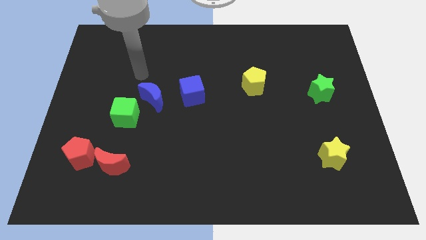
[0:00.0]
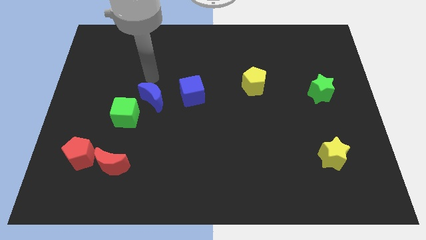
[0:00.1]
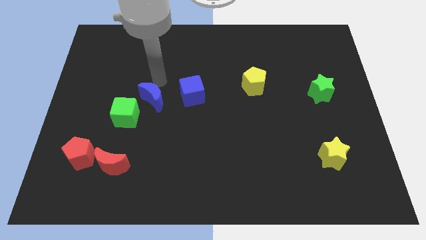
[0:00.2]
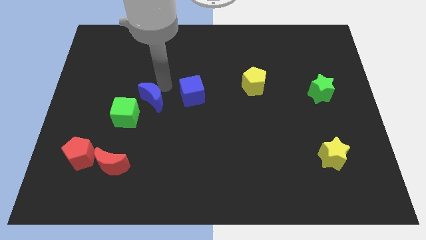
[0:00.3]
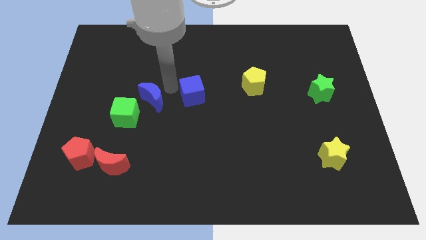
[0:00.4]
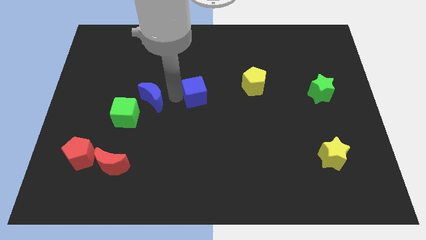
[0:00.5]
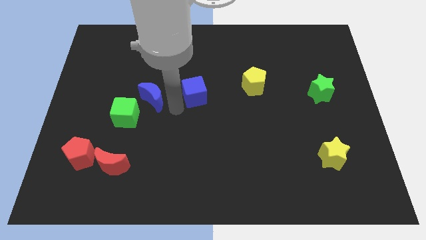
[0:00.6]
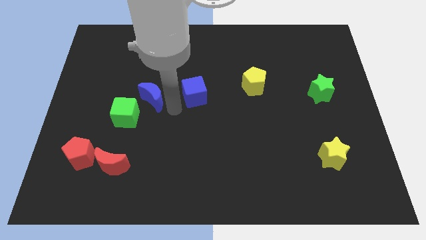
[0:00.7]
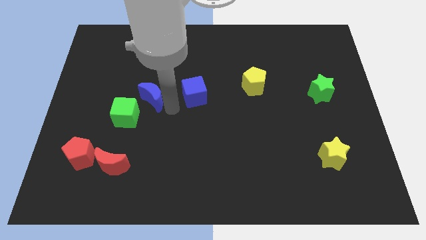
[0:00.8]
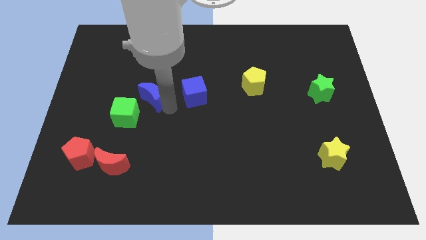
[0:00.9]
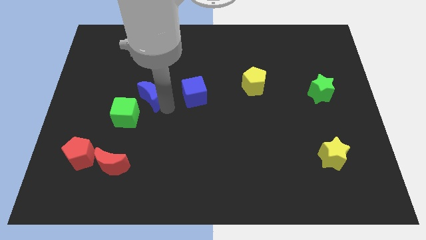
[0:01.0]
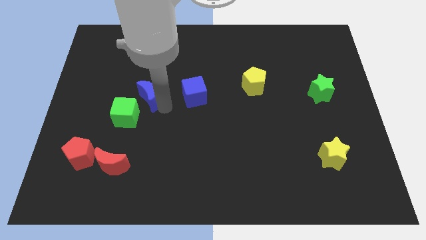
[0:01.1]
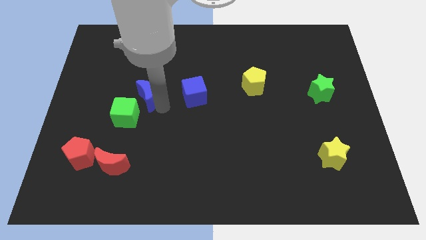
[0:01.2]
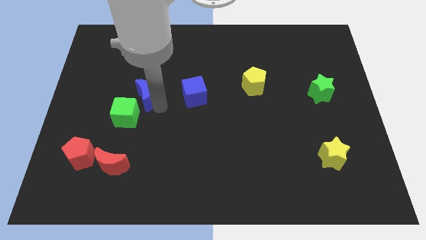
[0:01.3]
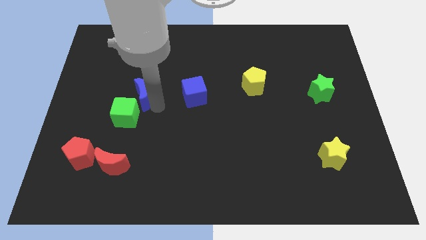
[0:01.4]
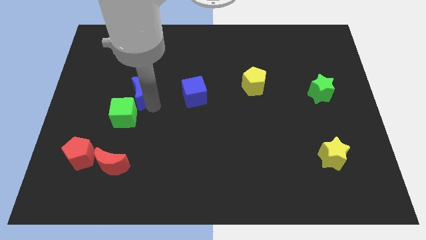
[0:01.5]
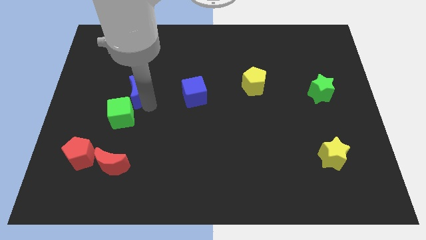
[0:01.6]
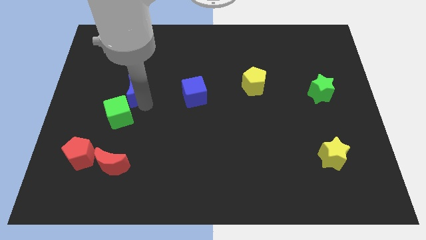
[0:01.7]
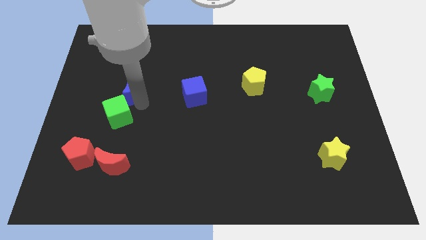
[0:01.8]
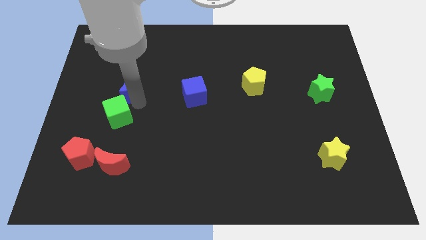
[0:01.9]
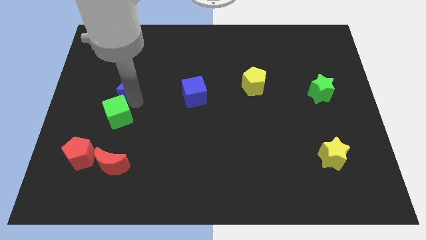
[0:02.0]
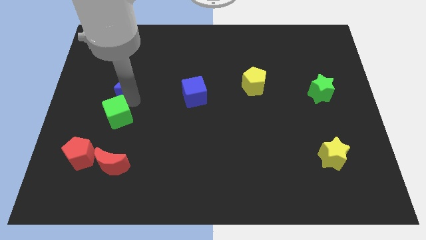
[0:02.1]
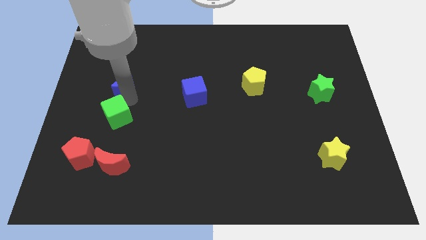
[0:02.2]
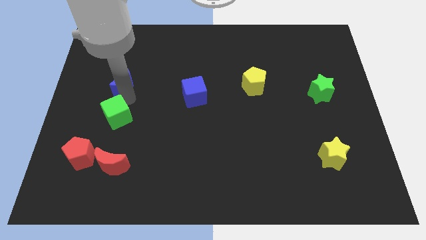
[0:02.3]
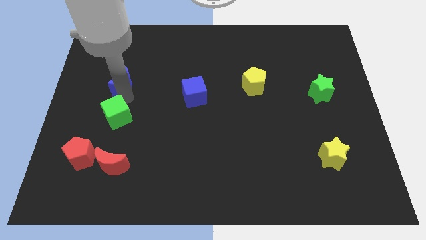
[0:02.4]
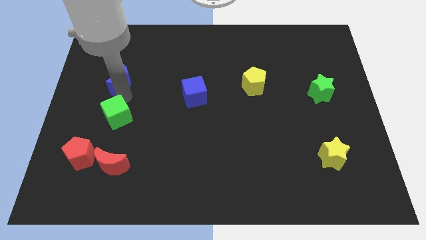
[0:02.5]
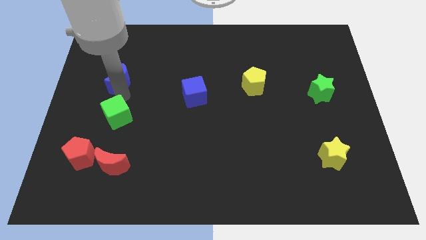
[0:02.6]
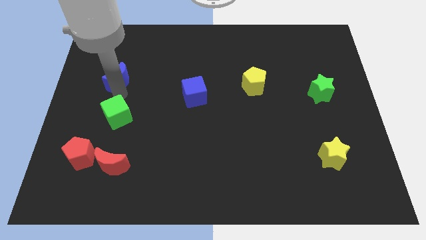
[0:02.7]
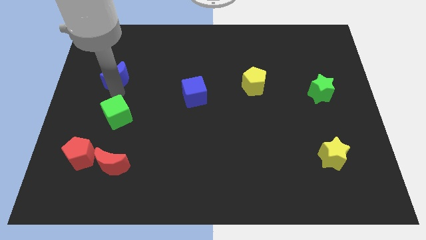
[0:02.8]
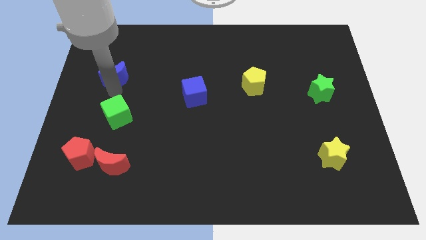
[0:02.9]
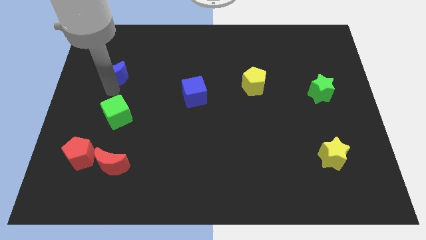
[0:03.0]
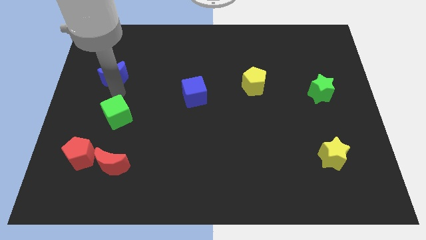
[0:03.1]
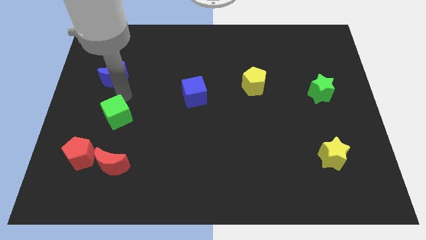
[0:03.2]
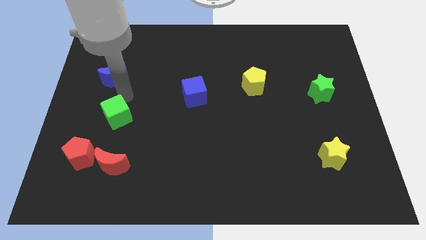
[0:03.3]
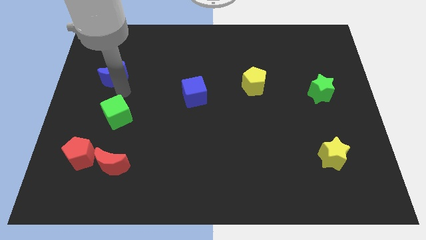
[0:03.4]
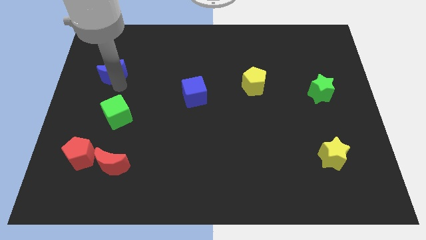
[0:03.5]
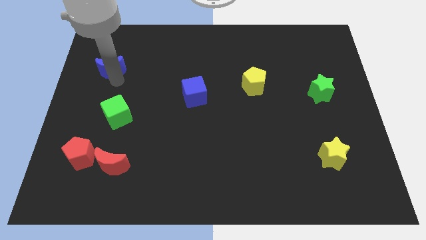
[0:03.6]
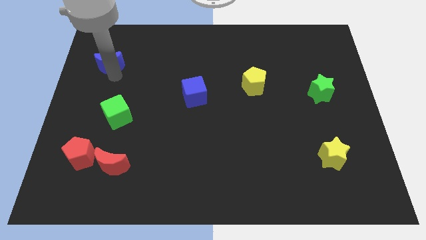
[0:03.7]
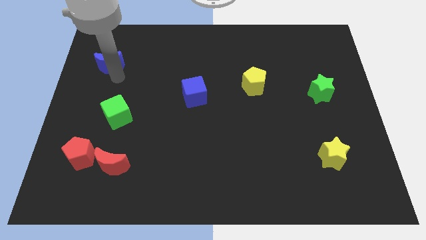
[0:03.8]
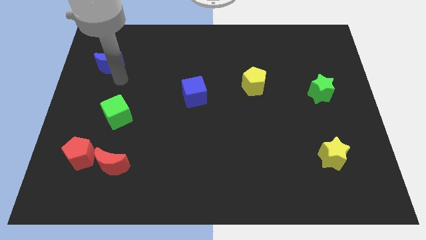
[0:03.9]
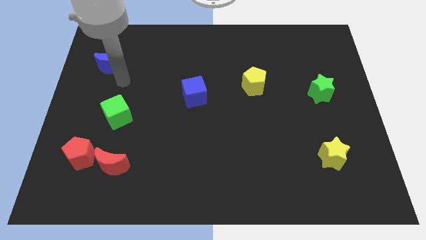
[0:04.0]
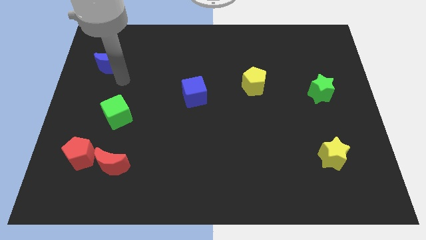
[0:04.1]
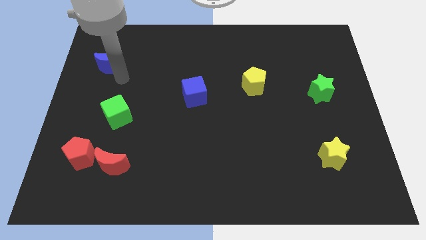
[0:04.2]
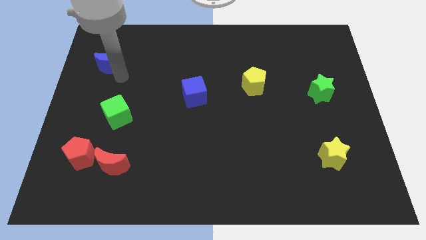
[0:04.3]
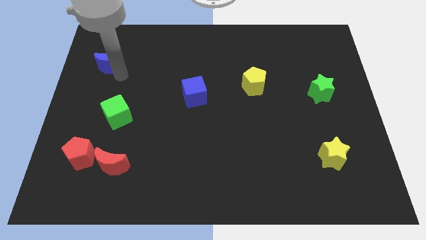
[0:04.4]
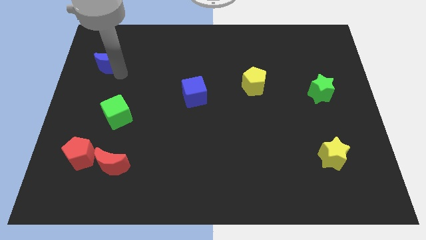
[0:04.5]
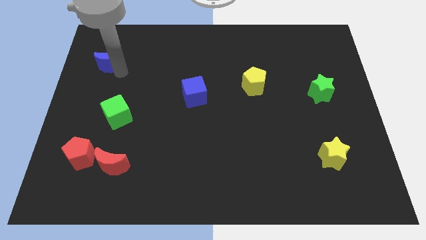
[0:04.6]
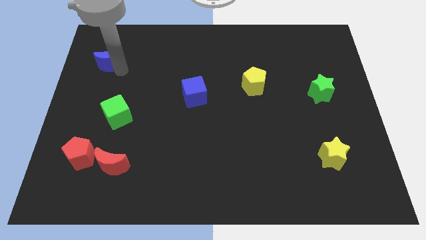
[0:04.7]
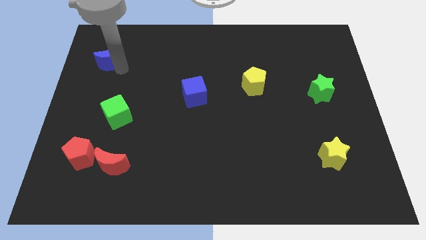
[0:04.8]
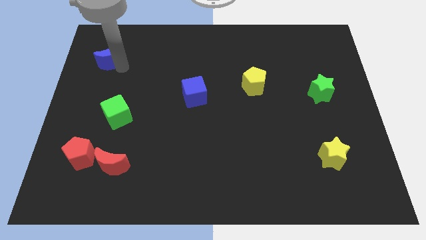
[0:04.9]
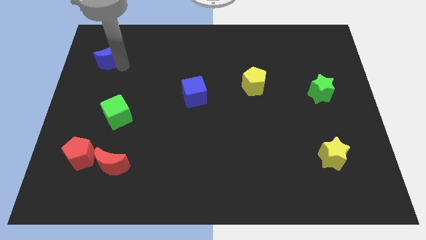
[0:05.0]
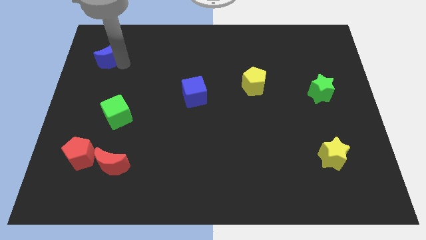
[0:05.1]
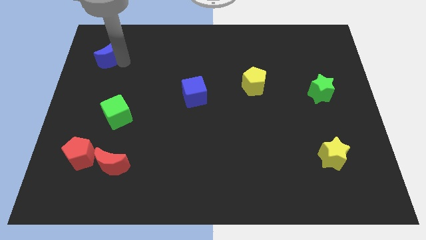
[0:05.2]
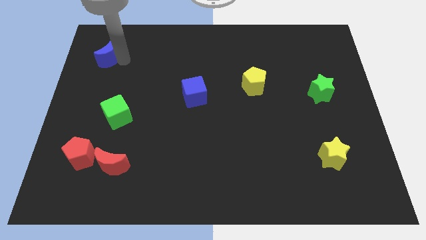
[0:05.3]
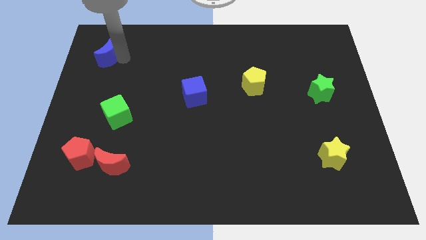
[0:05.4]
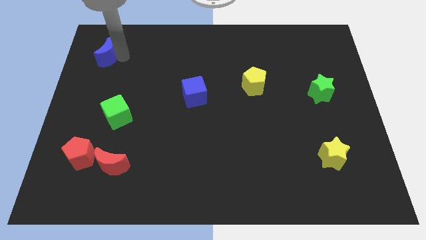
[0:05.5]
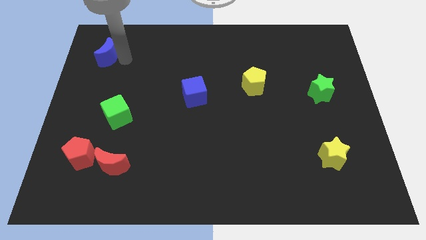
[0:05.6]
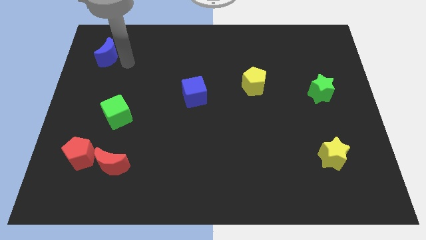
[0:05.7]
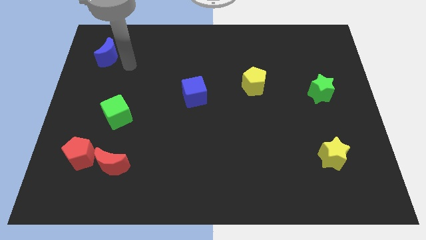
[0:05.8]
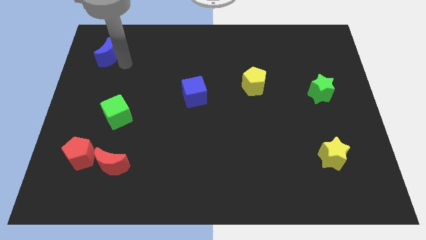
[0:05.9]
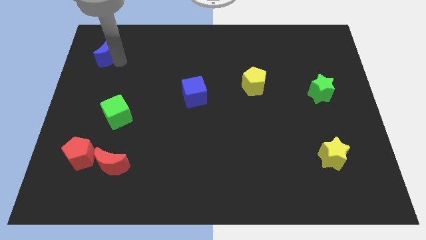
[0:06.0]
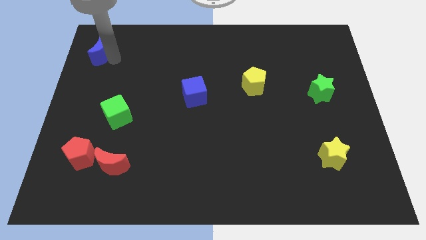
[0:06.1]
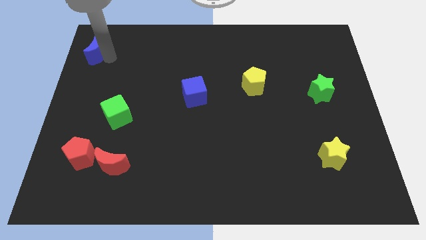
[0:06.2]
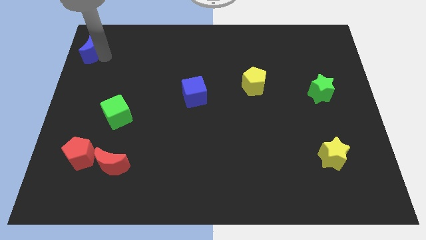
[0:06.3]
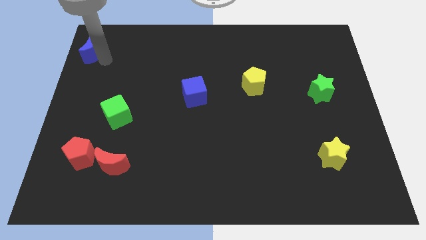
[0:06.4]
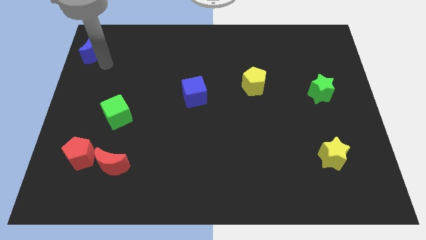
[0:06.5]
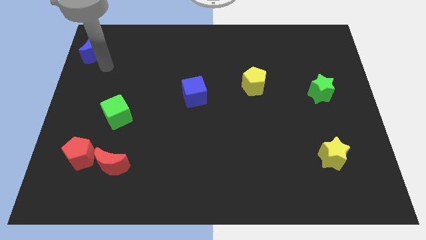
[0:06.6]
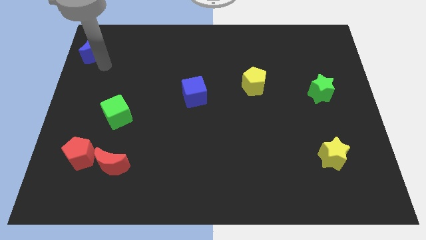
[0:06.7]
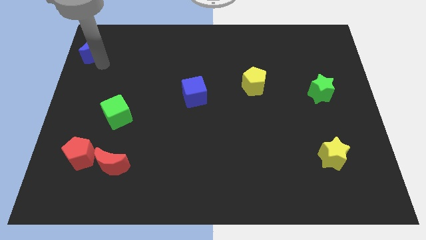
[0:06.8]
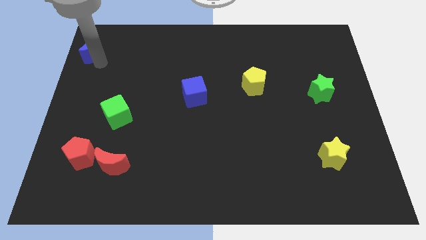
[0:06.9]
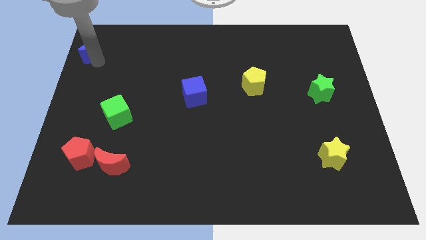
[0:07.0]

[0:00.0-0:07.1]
push the blue moon to the top left corner
